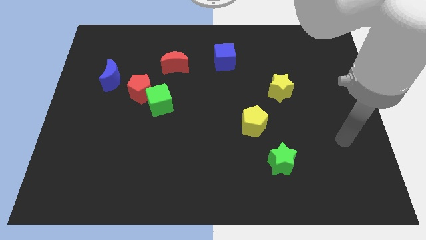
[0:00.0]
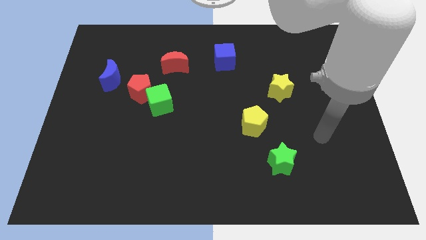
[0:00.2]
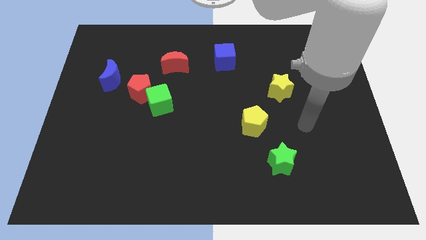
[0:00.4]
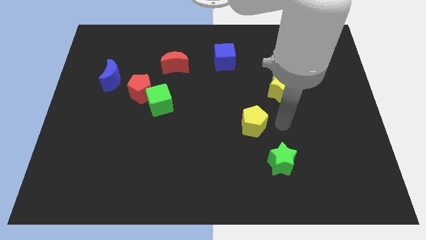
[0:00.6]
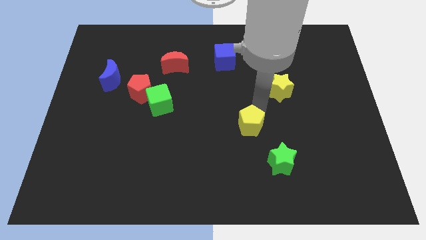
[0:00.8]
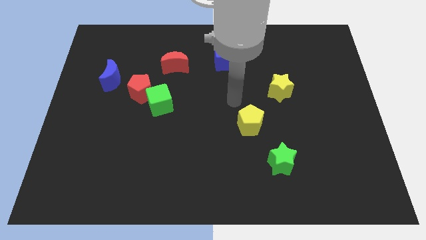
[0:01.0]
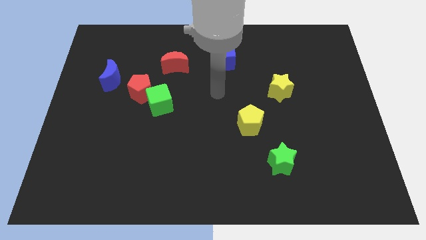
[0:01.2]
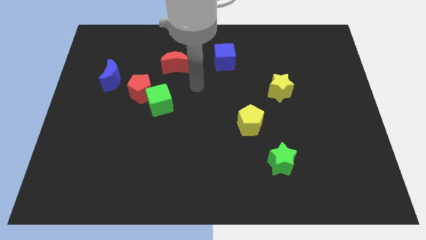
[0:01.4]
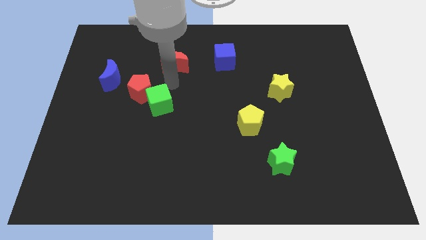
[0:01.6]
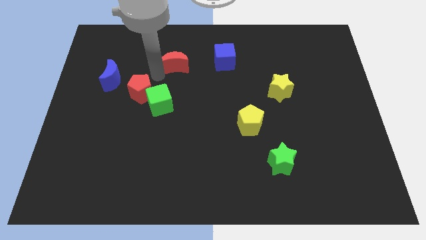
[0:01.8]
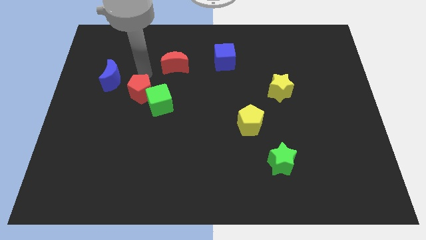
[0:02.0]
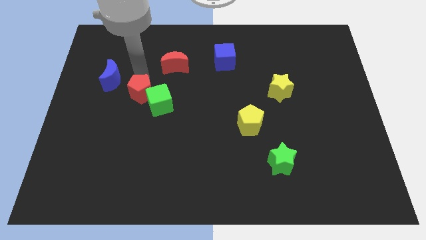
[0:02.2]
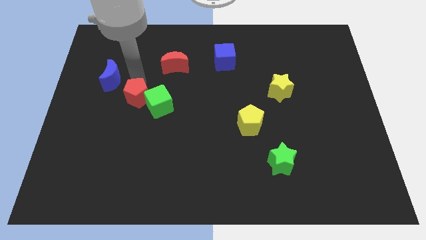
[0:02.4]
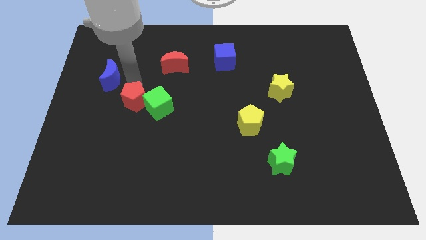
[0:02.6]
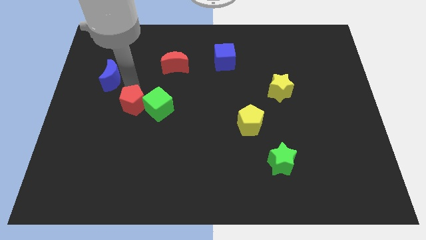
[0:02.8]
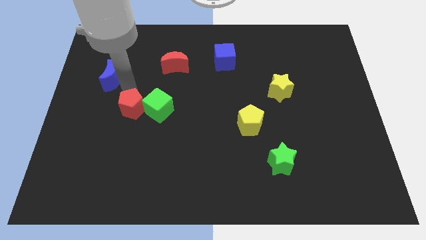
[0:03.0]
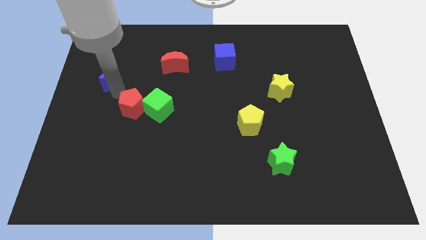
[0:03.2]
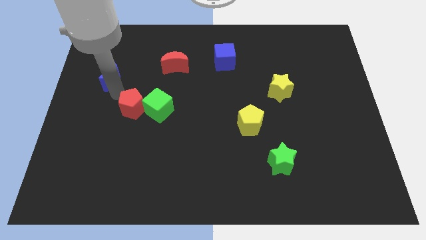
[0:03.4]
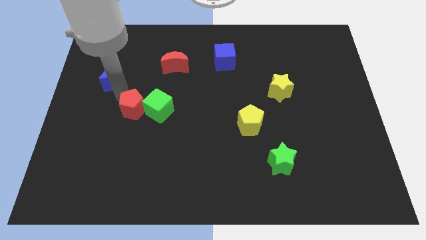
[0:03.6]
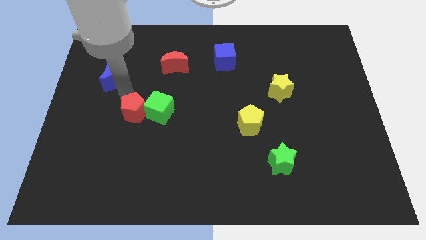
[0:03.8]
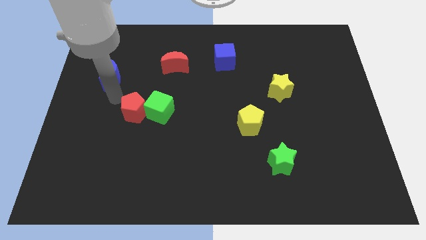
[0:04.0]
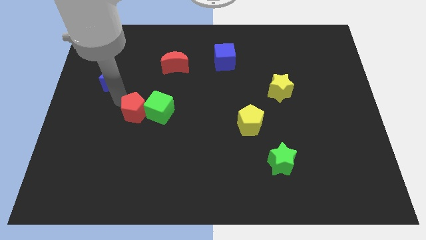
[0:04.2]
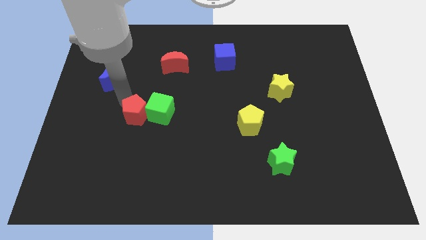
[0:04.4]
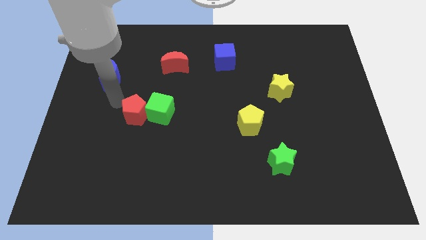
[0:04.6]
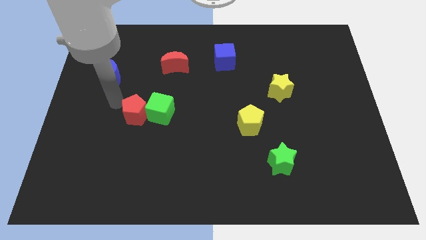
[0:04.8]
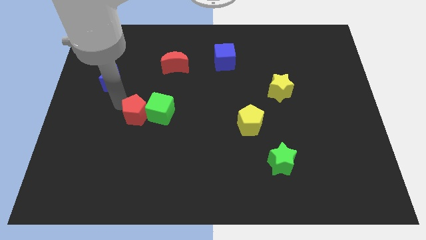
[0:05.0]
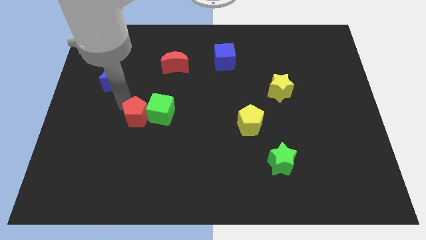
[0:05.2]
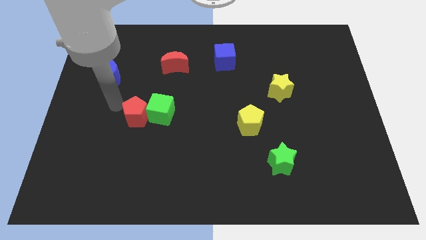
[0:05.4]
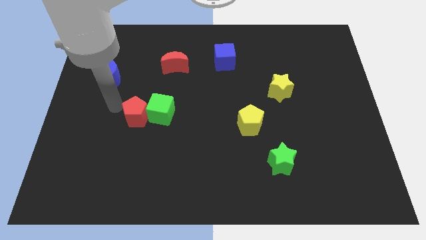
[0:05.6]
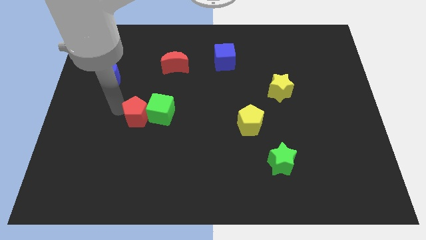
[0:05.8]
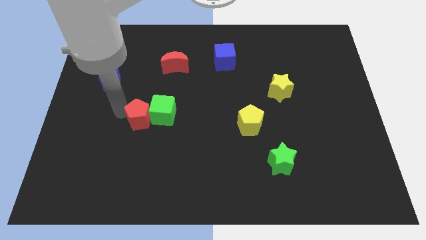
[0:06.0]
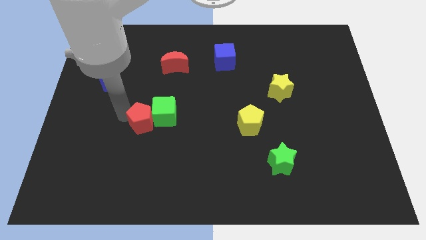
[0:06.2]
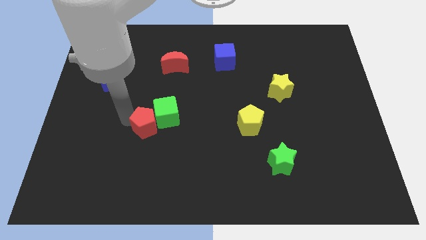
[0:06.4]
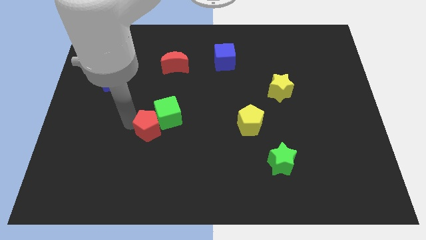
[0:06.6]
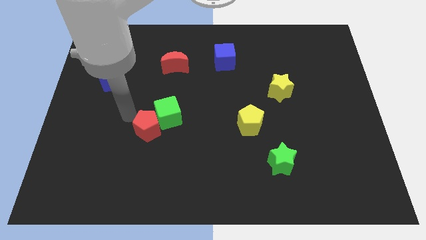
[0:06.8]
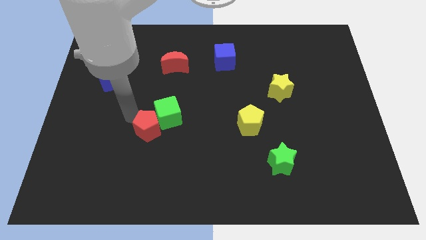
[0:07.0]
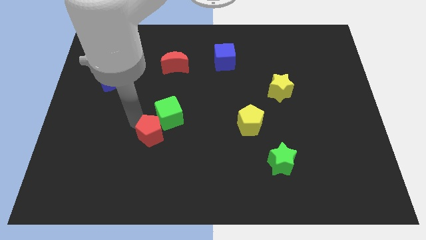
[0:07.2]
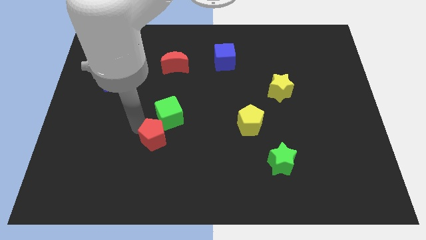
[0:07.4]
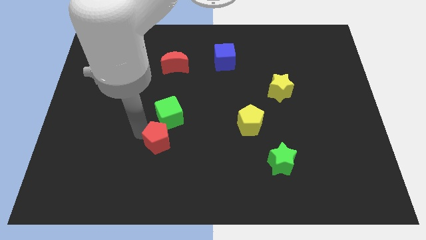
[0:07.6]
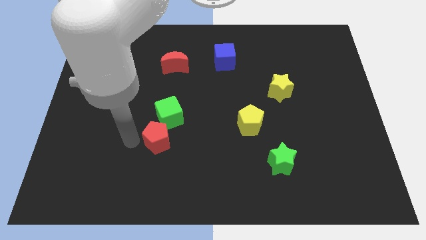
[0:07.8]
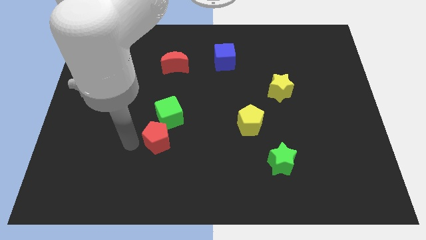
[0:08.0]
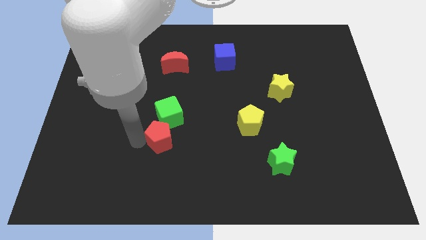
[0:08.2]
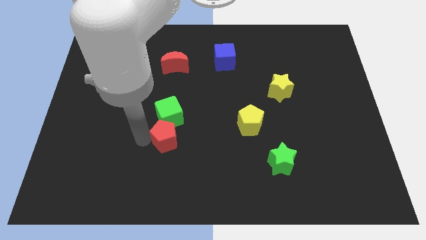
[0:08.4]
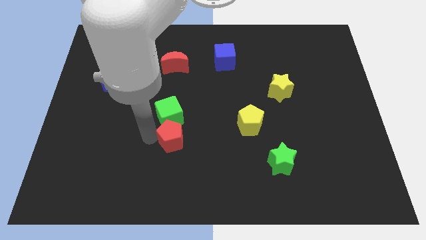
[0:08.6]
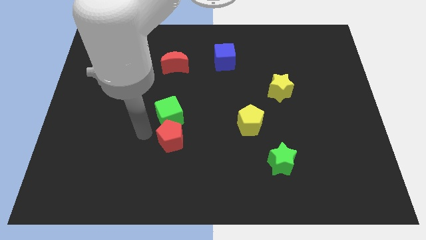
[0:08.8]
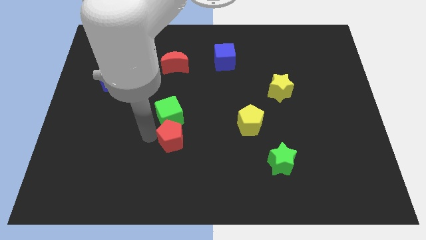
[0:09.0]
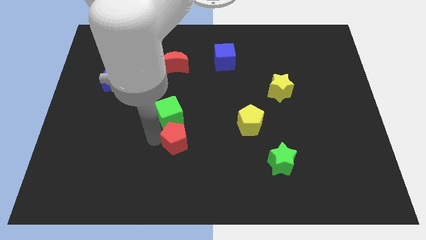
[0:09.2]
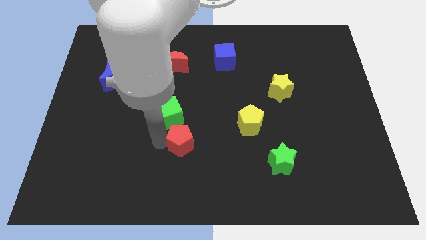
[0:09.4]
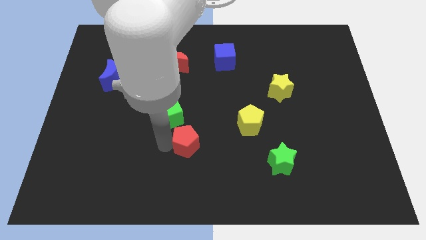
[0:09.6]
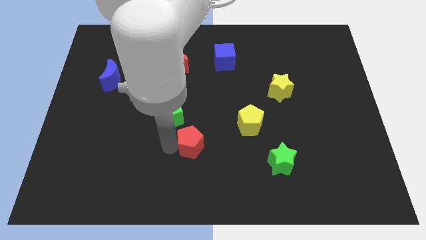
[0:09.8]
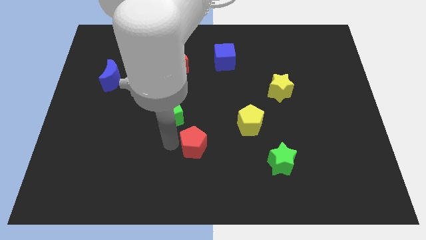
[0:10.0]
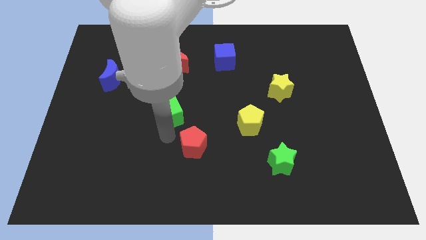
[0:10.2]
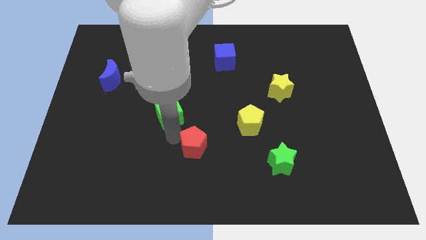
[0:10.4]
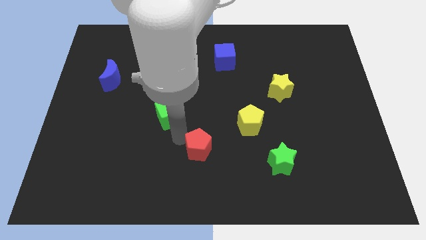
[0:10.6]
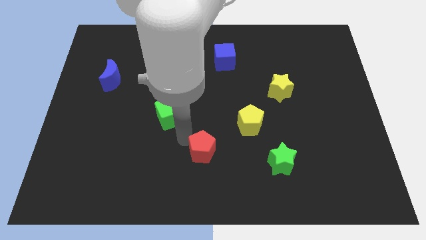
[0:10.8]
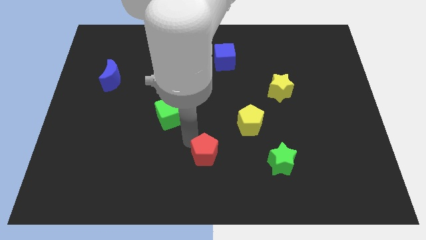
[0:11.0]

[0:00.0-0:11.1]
slide the red pentagon to the left of the green star
